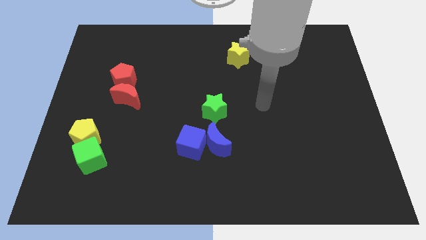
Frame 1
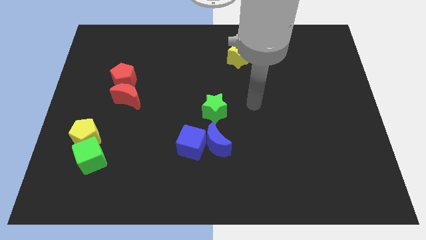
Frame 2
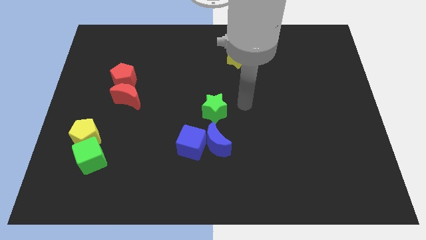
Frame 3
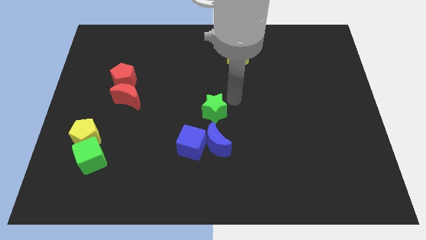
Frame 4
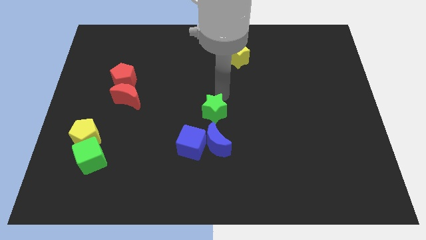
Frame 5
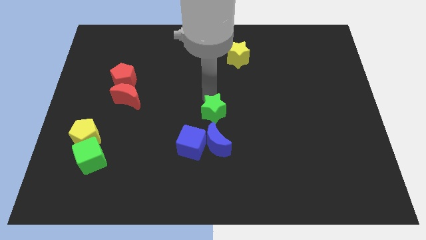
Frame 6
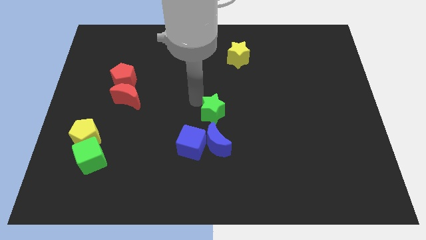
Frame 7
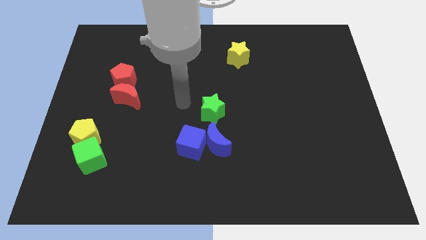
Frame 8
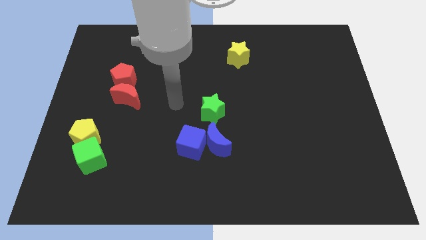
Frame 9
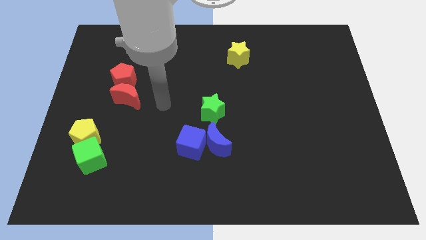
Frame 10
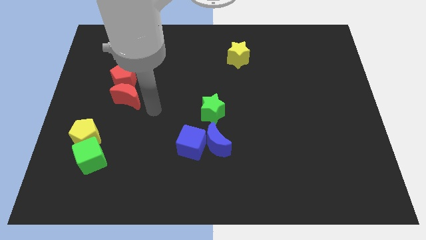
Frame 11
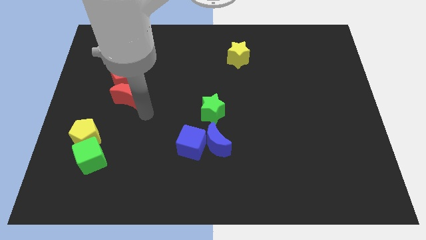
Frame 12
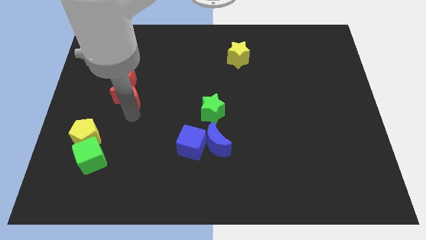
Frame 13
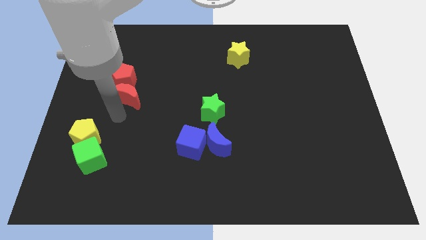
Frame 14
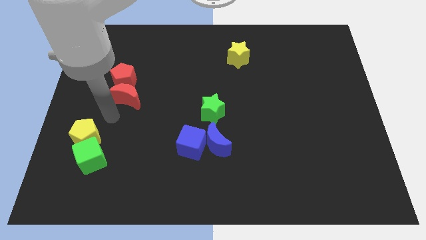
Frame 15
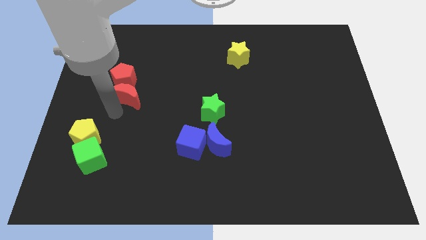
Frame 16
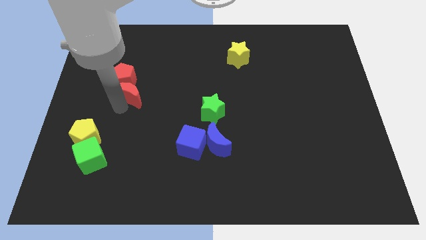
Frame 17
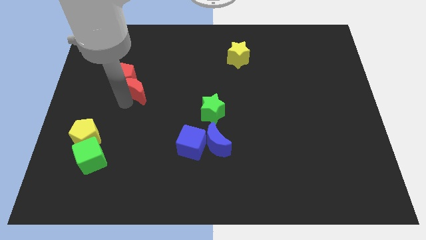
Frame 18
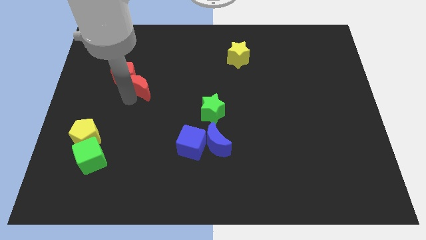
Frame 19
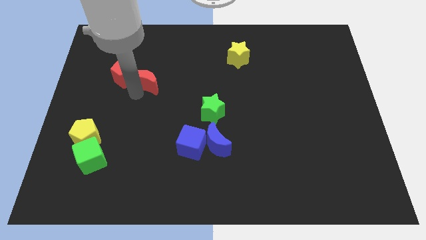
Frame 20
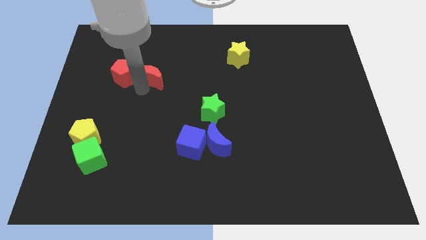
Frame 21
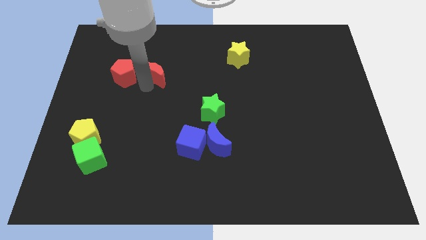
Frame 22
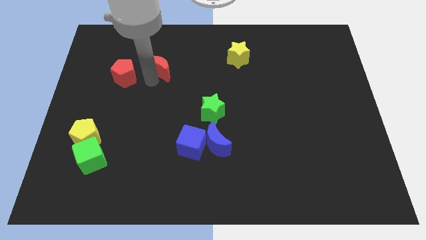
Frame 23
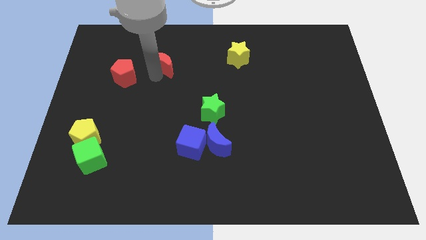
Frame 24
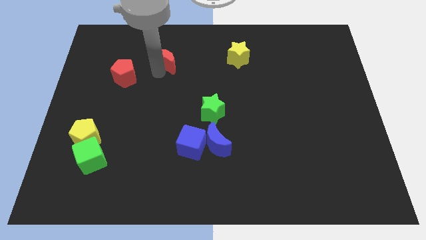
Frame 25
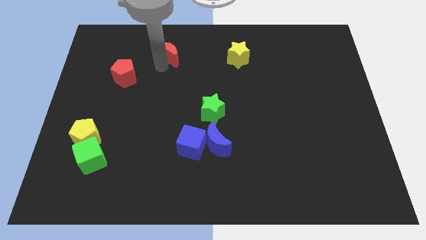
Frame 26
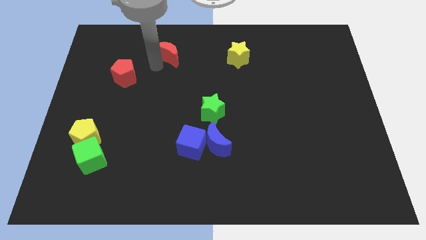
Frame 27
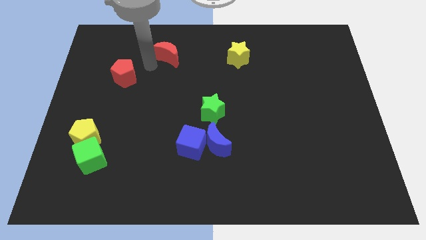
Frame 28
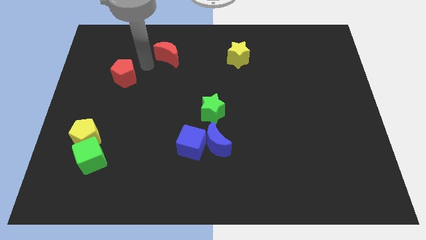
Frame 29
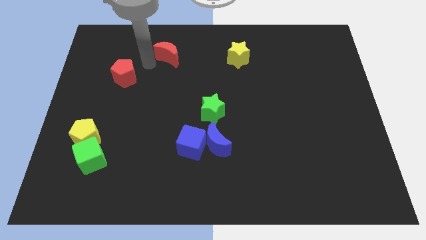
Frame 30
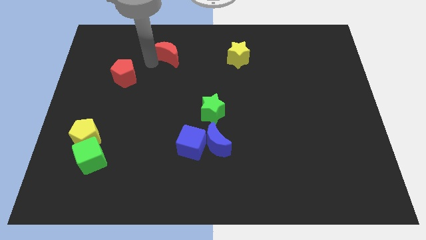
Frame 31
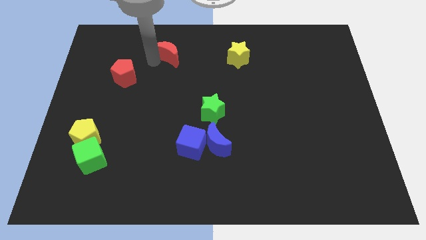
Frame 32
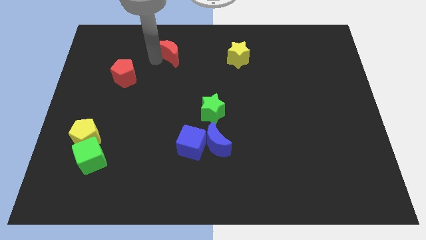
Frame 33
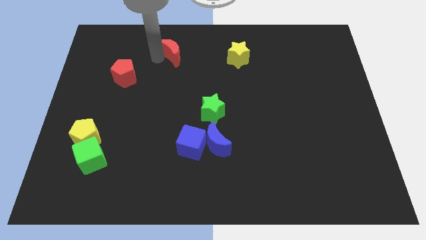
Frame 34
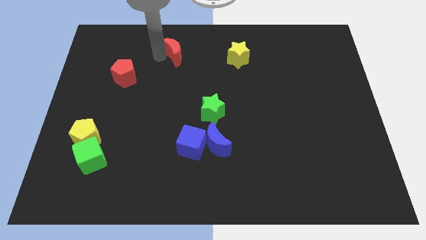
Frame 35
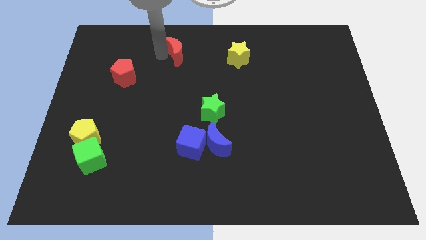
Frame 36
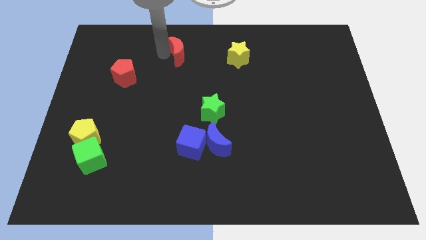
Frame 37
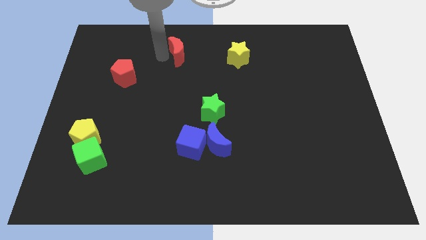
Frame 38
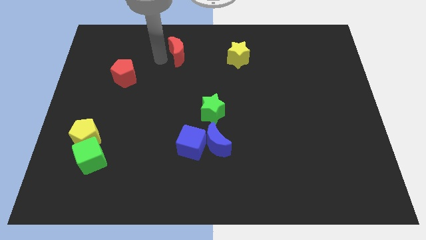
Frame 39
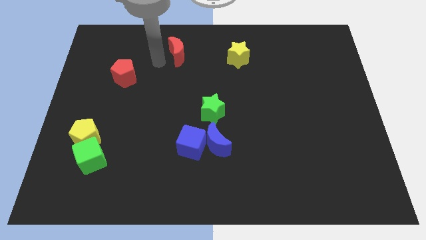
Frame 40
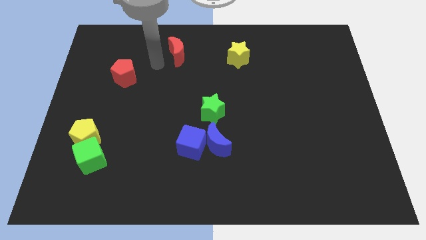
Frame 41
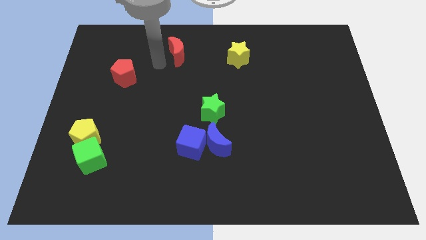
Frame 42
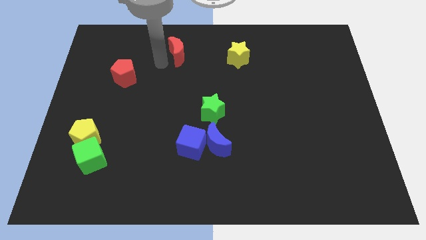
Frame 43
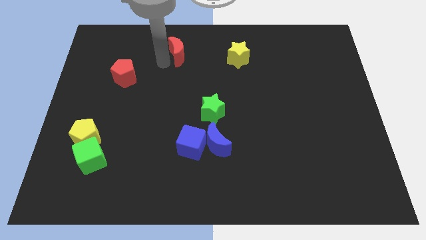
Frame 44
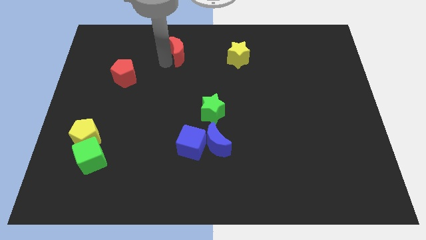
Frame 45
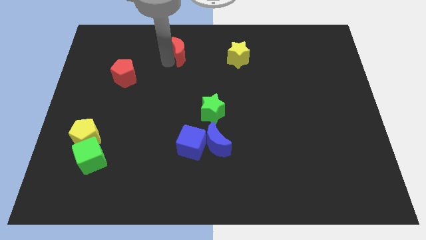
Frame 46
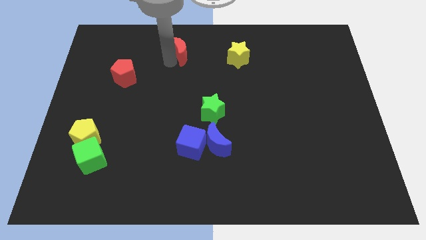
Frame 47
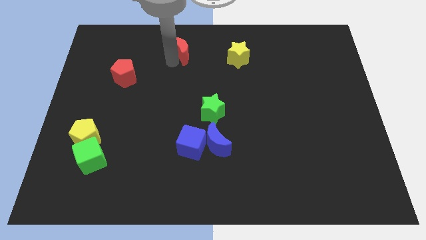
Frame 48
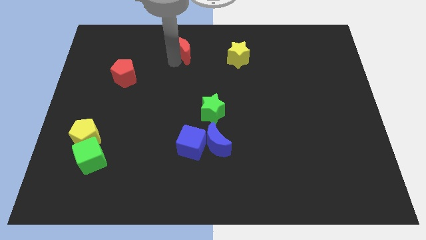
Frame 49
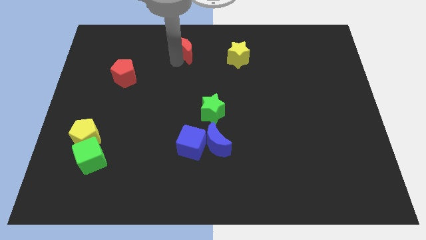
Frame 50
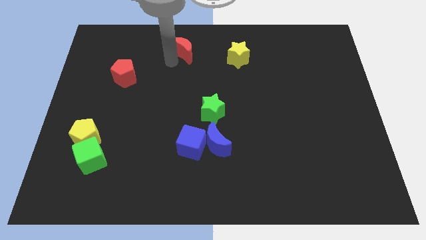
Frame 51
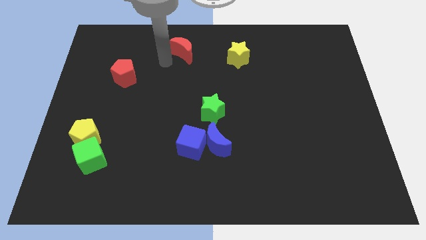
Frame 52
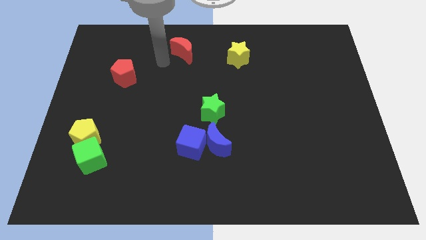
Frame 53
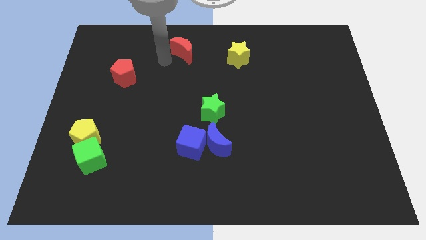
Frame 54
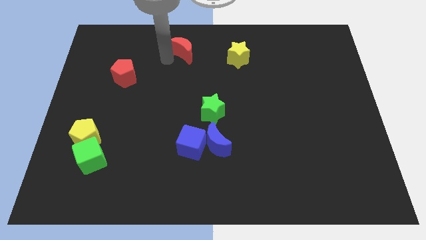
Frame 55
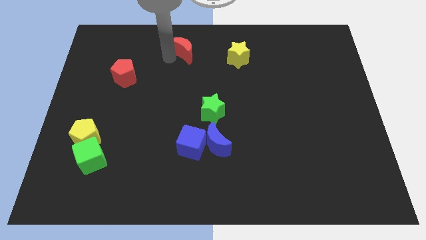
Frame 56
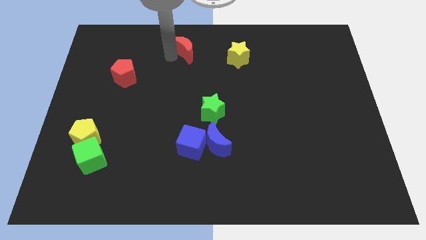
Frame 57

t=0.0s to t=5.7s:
put the red moon to the top
